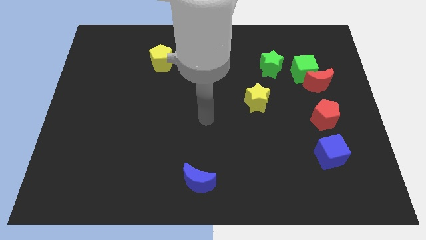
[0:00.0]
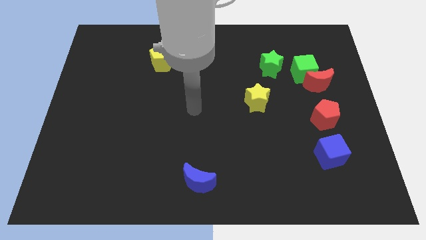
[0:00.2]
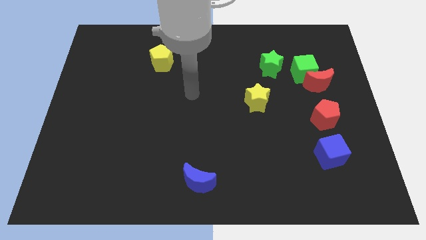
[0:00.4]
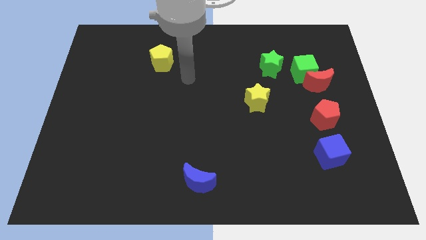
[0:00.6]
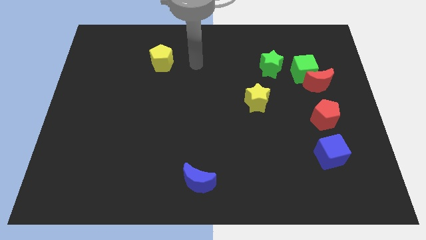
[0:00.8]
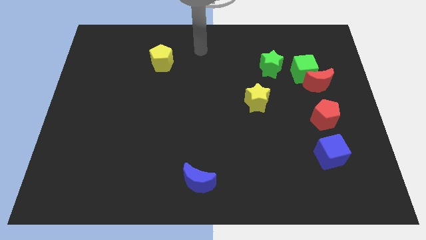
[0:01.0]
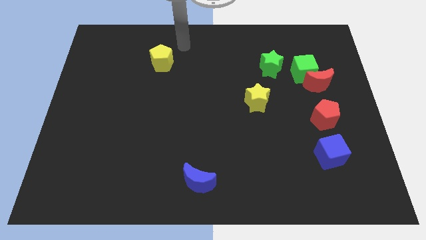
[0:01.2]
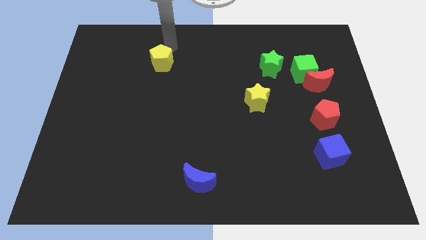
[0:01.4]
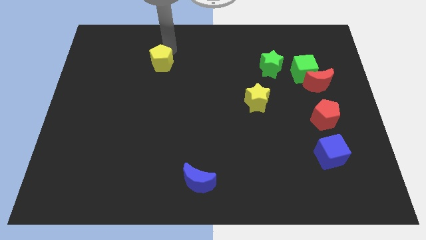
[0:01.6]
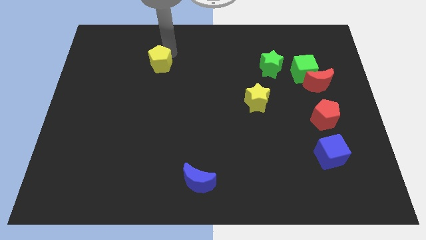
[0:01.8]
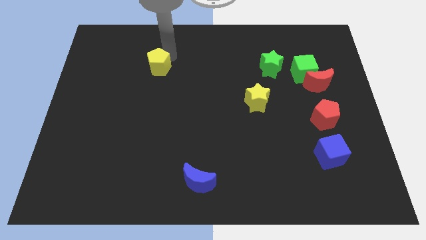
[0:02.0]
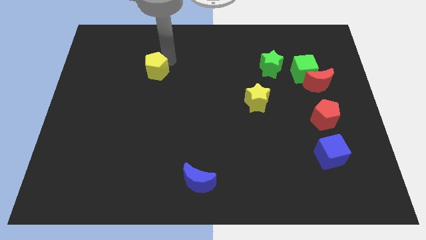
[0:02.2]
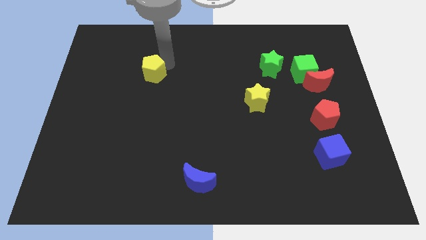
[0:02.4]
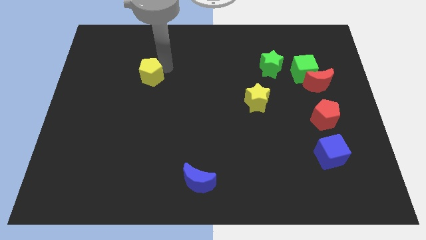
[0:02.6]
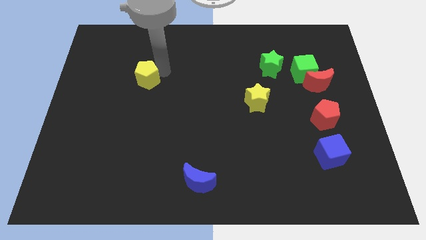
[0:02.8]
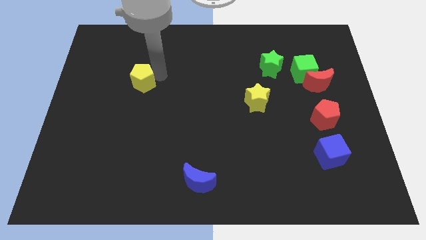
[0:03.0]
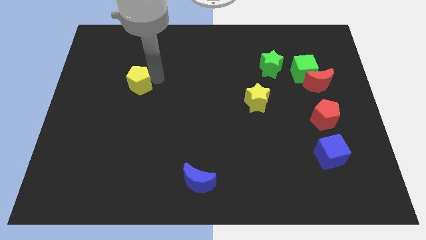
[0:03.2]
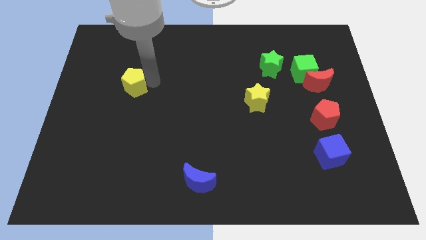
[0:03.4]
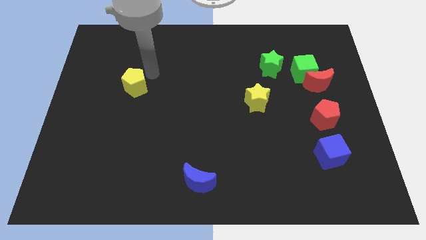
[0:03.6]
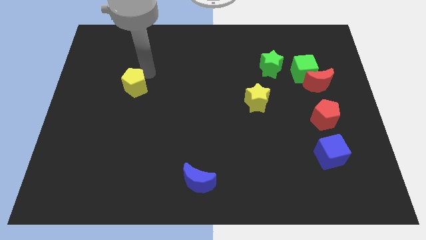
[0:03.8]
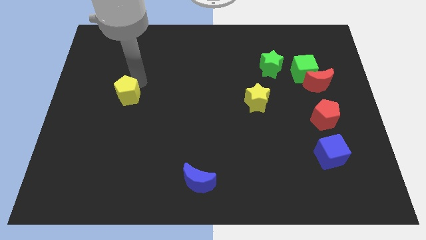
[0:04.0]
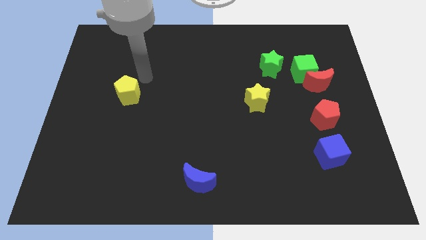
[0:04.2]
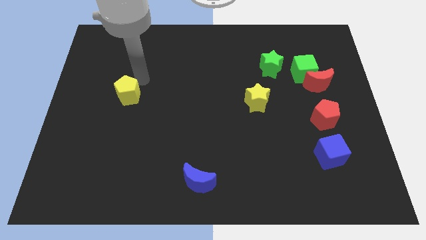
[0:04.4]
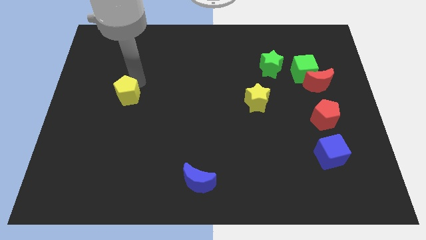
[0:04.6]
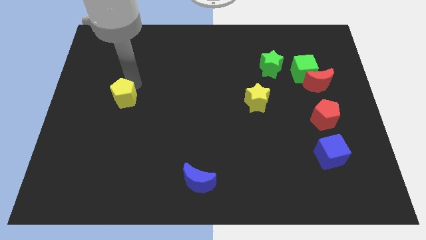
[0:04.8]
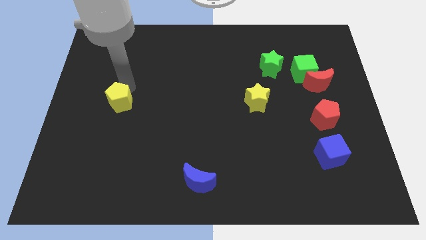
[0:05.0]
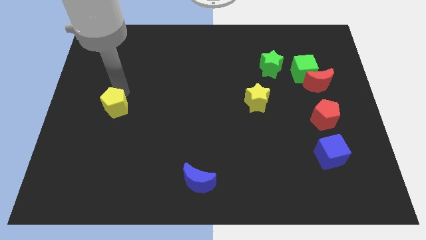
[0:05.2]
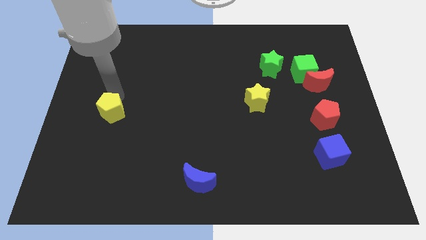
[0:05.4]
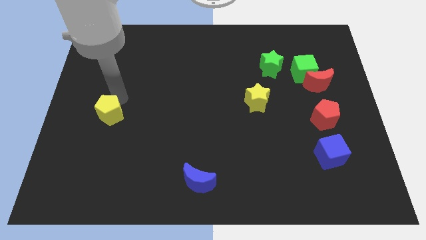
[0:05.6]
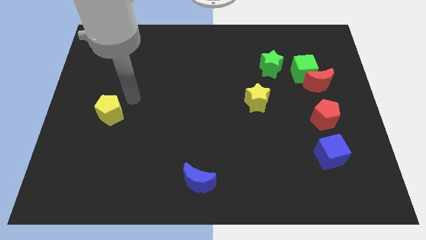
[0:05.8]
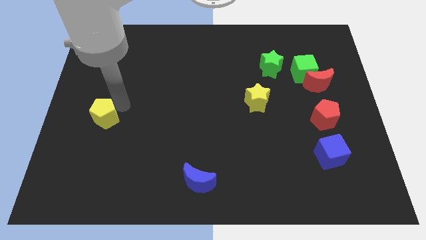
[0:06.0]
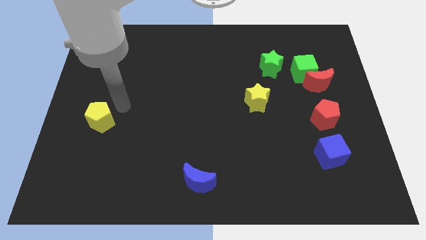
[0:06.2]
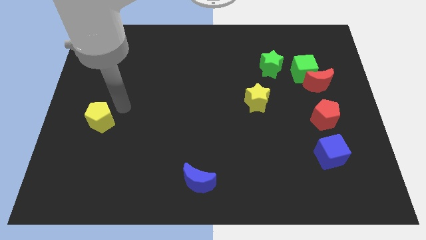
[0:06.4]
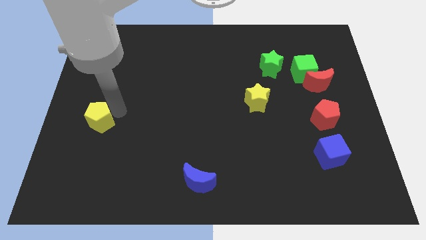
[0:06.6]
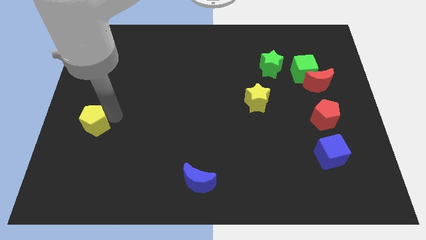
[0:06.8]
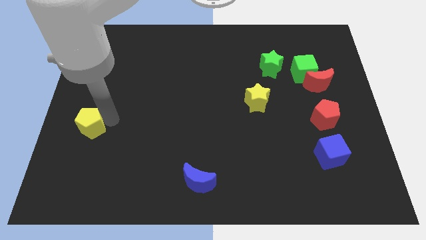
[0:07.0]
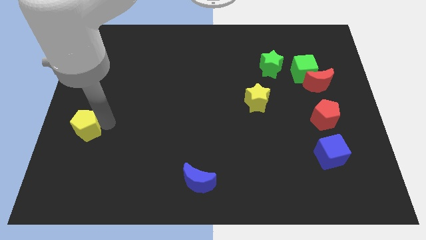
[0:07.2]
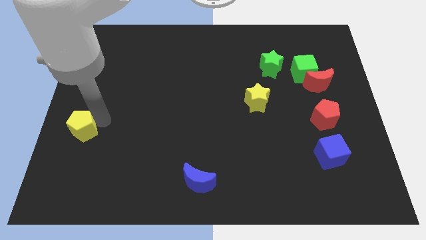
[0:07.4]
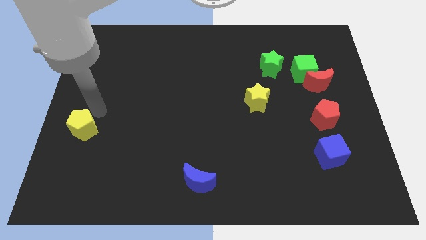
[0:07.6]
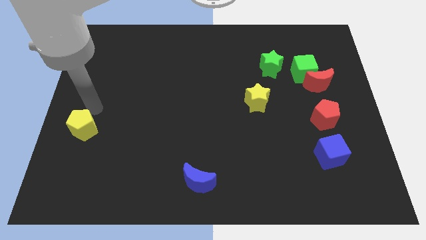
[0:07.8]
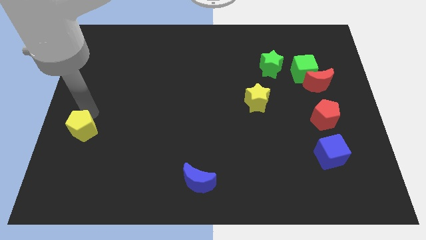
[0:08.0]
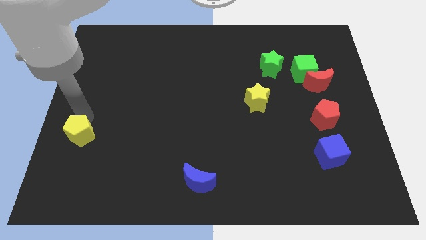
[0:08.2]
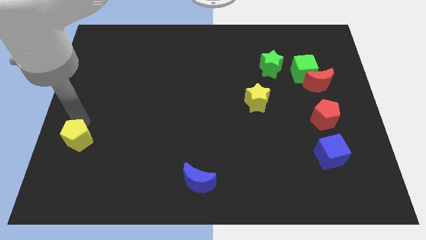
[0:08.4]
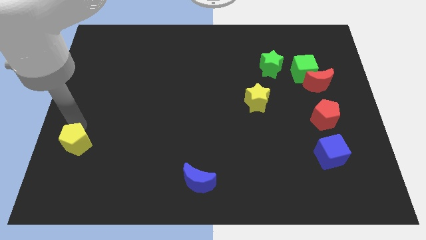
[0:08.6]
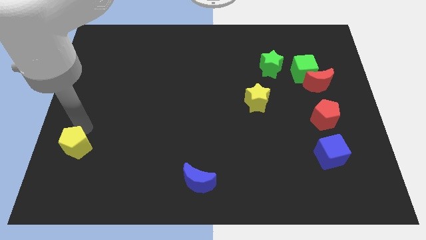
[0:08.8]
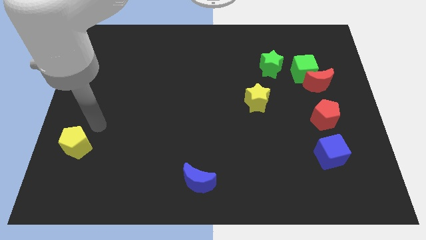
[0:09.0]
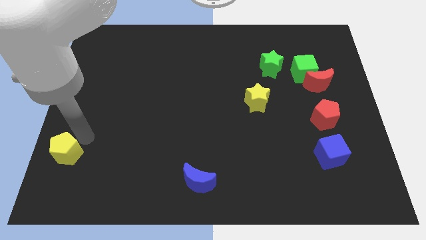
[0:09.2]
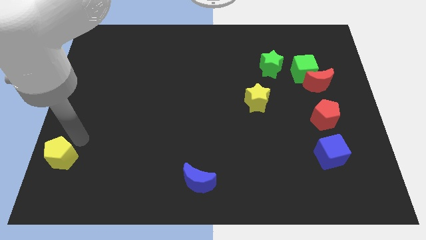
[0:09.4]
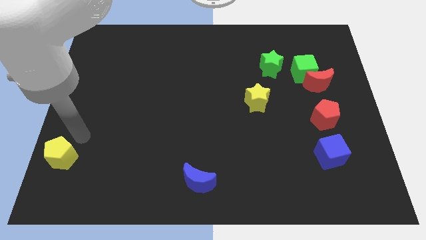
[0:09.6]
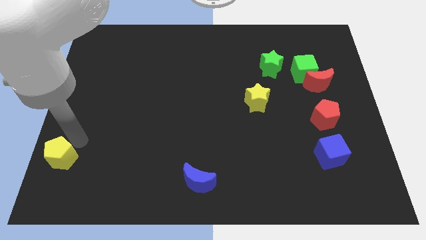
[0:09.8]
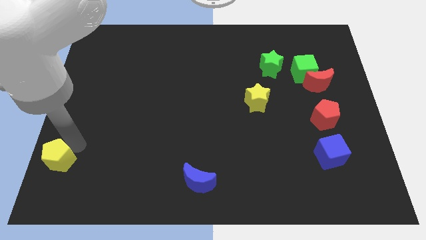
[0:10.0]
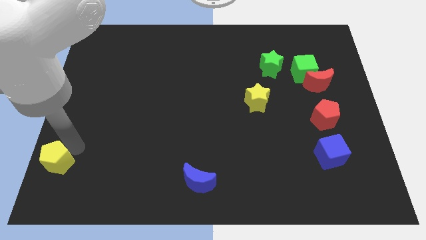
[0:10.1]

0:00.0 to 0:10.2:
move the yellow pentagon to the bottom left

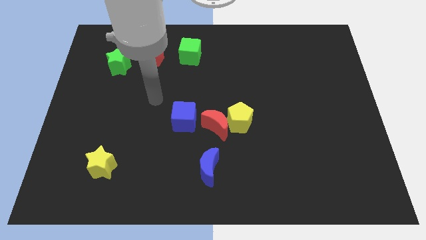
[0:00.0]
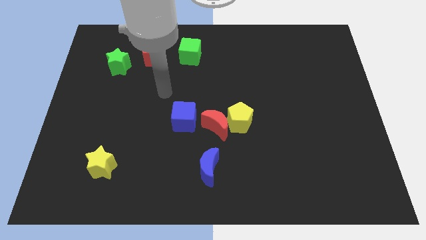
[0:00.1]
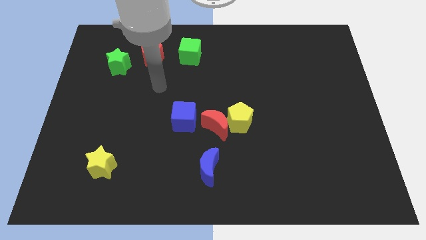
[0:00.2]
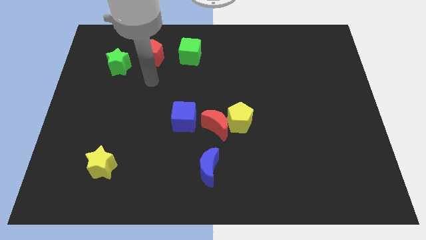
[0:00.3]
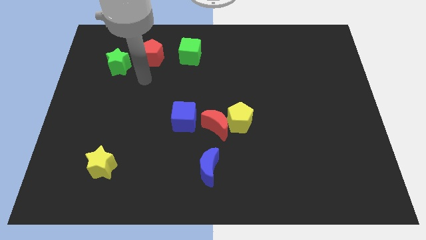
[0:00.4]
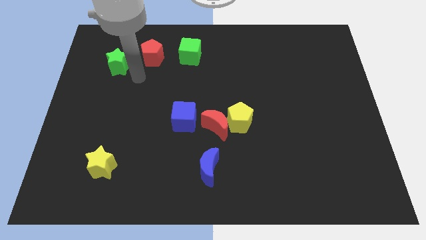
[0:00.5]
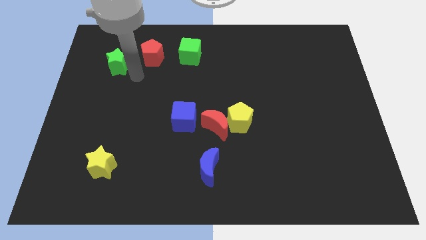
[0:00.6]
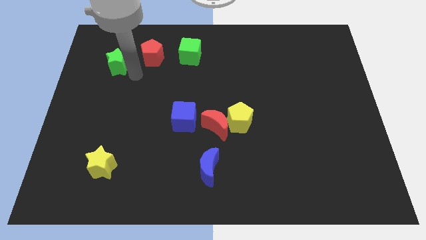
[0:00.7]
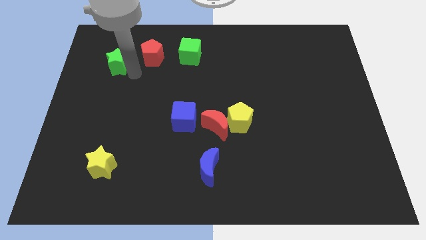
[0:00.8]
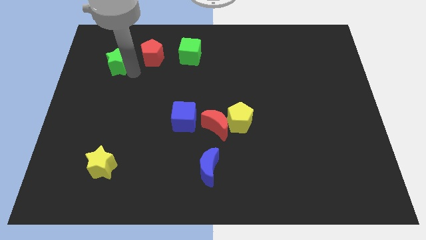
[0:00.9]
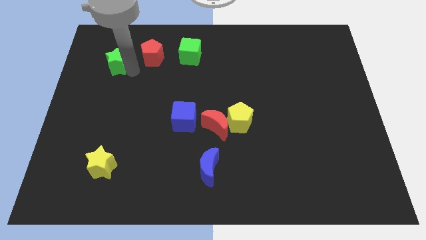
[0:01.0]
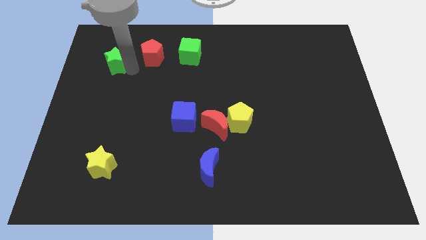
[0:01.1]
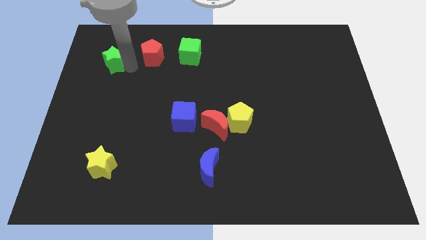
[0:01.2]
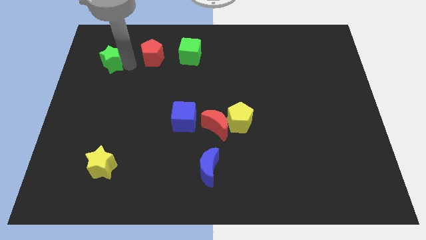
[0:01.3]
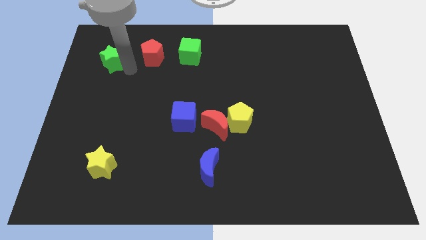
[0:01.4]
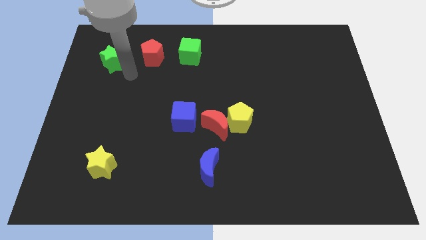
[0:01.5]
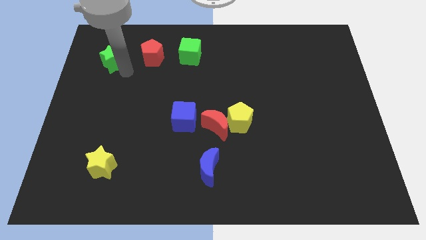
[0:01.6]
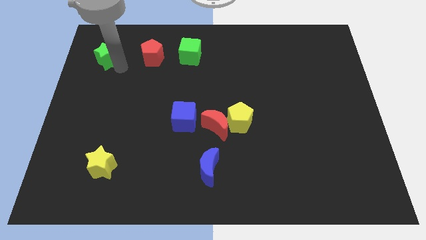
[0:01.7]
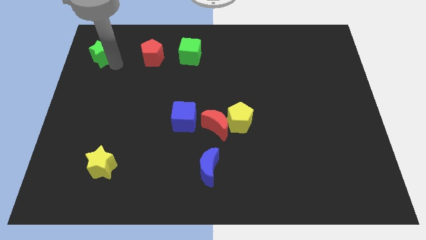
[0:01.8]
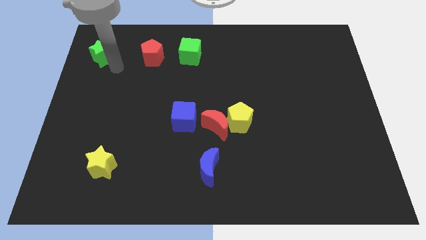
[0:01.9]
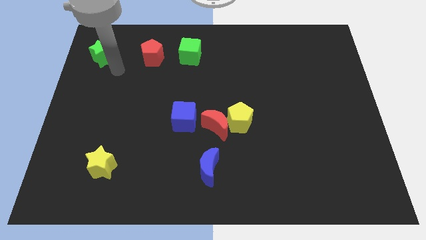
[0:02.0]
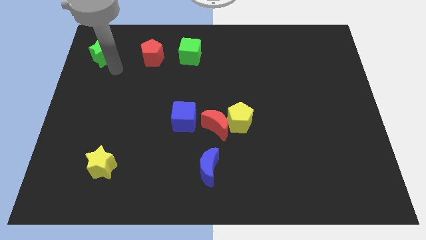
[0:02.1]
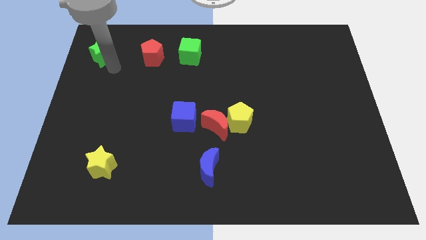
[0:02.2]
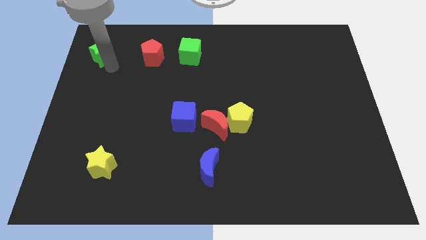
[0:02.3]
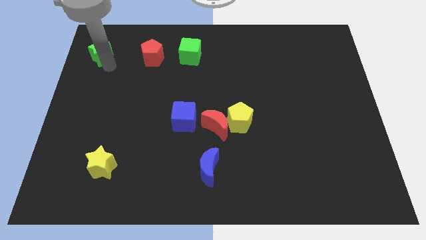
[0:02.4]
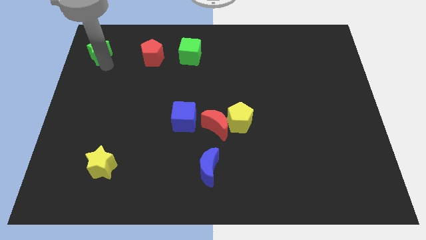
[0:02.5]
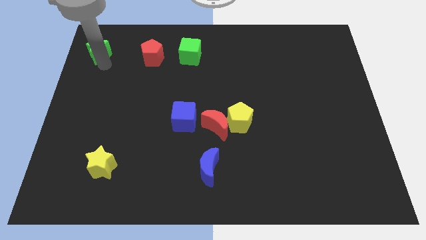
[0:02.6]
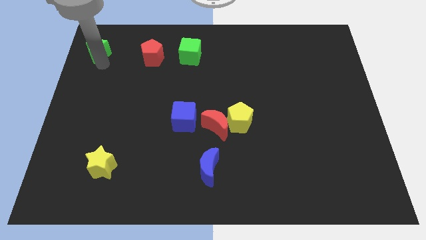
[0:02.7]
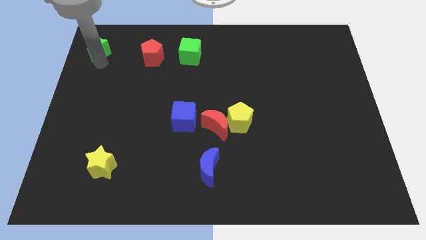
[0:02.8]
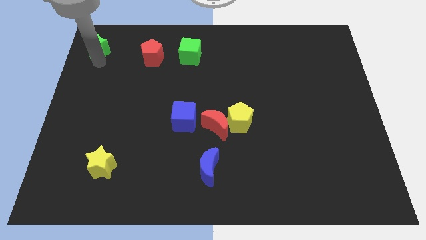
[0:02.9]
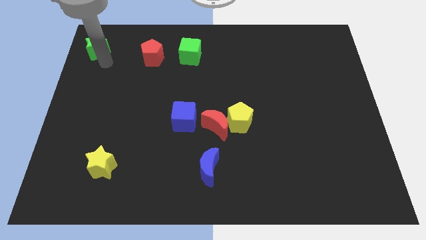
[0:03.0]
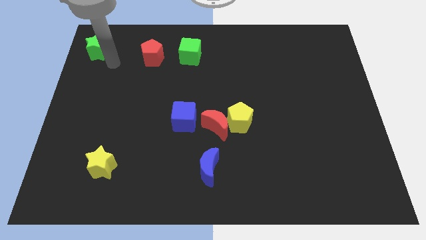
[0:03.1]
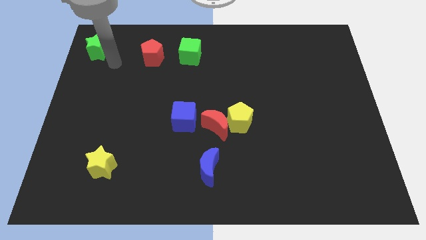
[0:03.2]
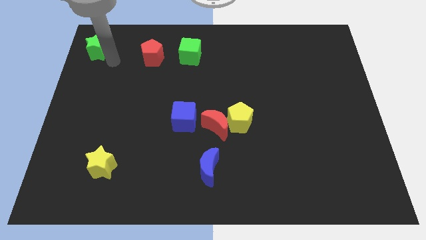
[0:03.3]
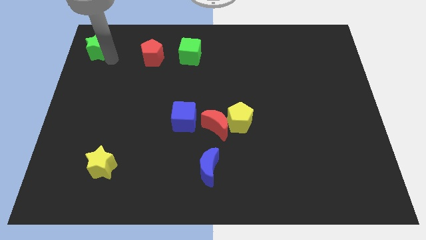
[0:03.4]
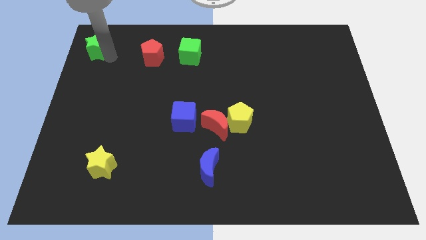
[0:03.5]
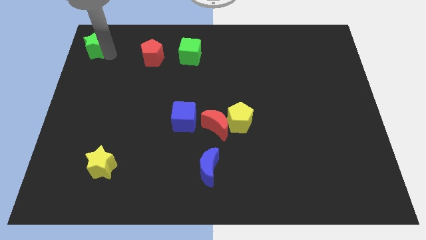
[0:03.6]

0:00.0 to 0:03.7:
move the green star to the top left
